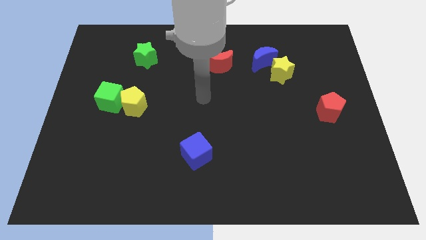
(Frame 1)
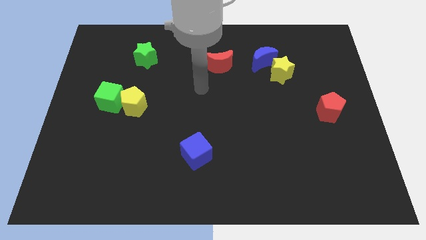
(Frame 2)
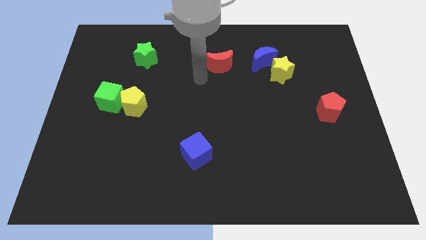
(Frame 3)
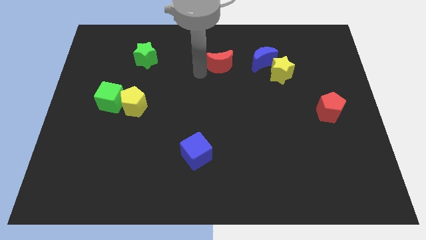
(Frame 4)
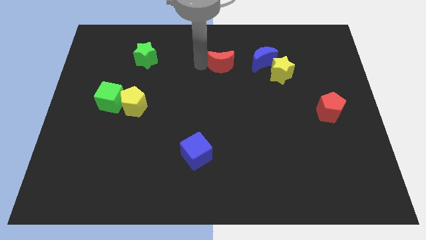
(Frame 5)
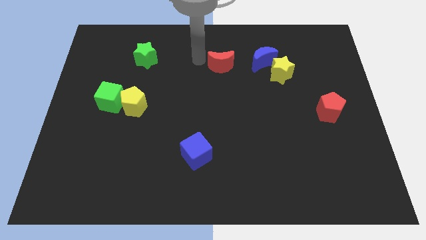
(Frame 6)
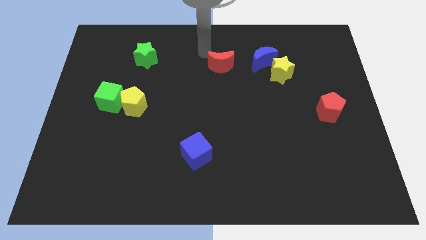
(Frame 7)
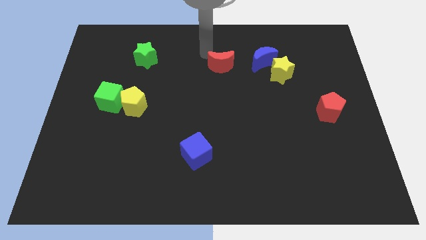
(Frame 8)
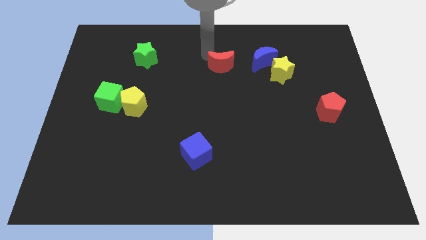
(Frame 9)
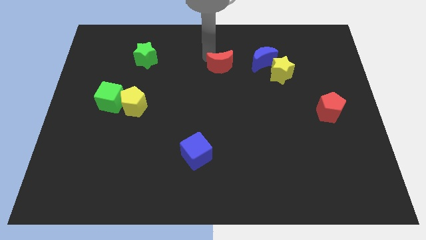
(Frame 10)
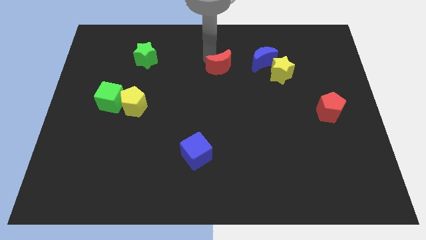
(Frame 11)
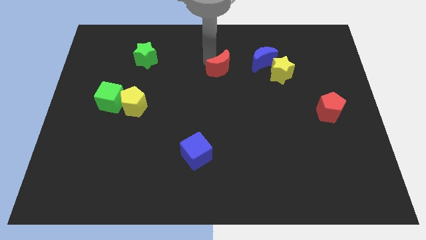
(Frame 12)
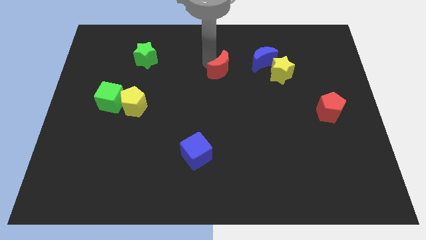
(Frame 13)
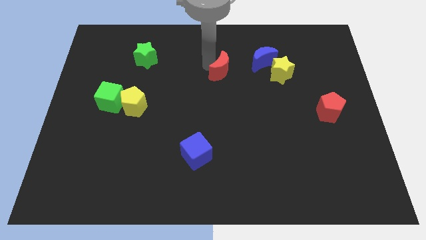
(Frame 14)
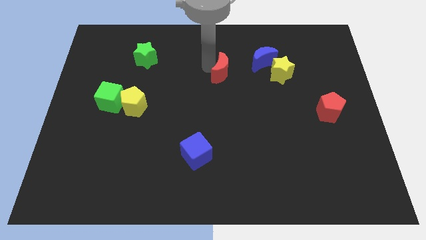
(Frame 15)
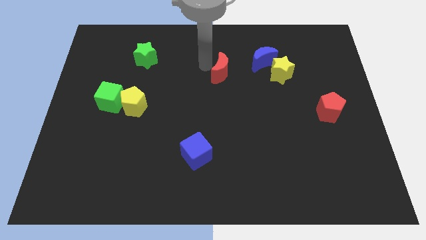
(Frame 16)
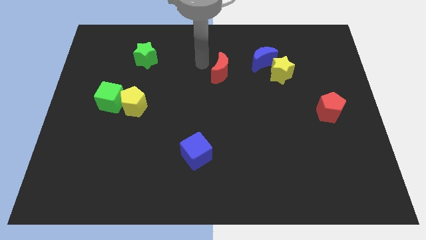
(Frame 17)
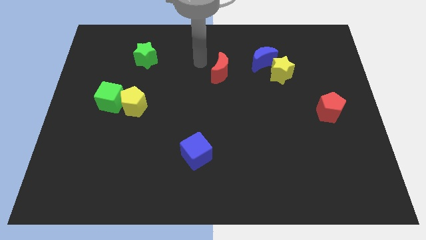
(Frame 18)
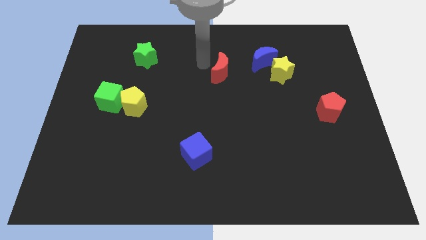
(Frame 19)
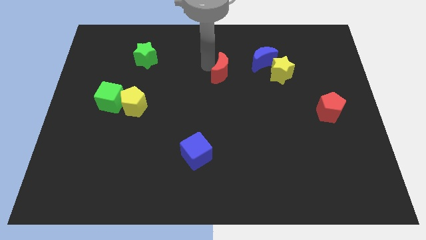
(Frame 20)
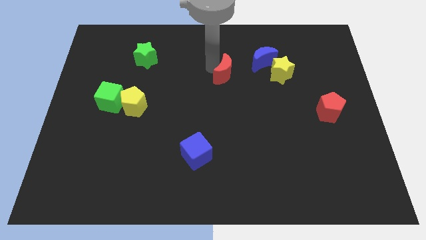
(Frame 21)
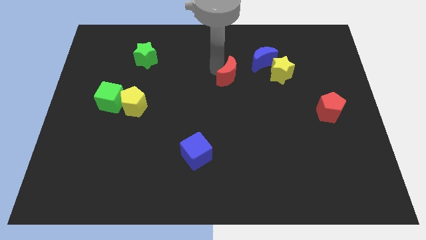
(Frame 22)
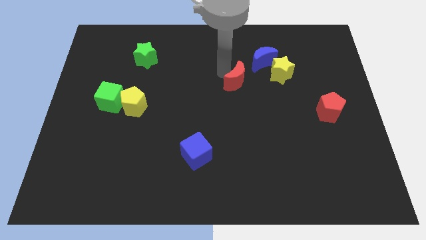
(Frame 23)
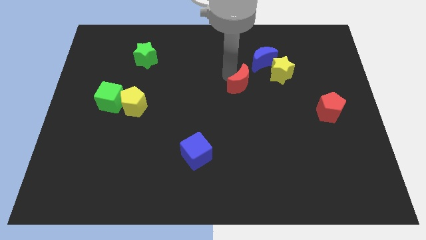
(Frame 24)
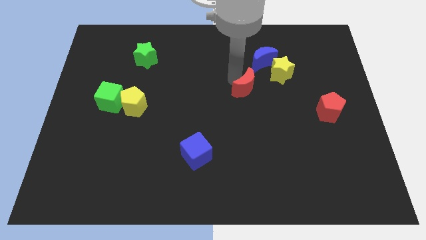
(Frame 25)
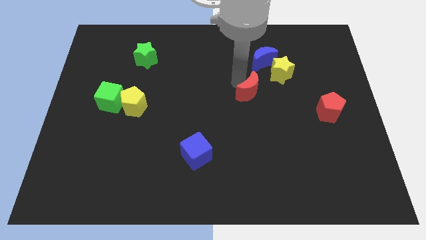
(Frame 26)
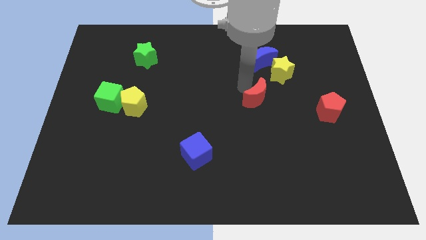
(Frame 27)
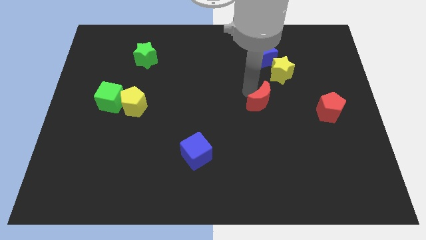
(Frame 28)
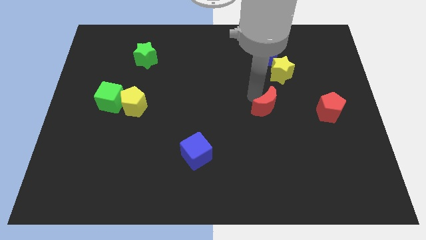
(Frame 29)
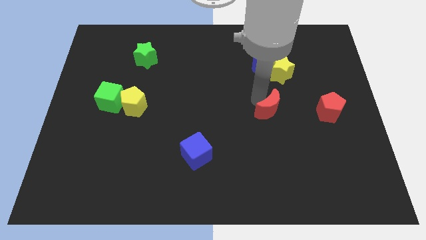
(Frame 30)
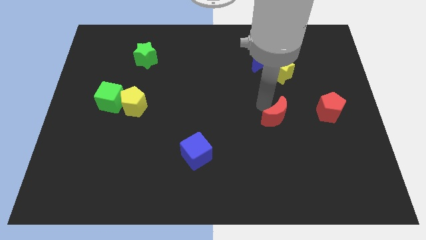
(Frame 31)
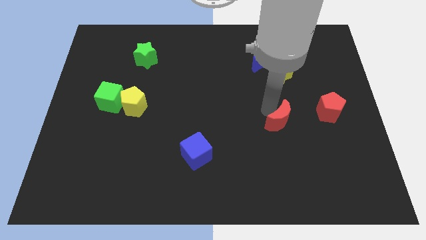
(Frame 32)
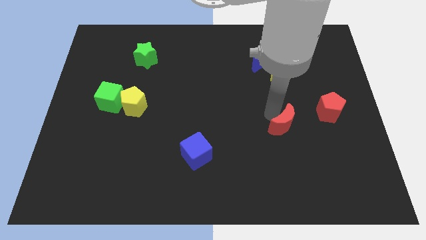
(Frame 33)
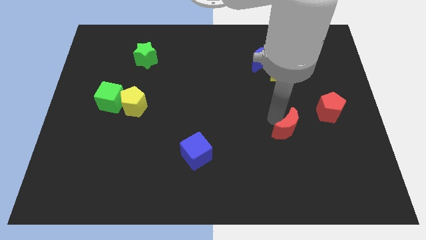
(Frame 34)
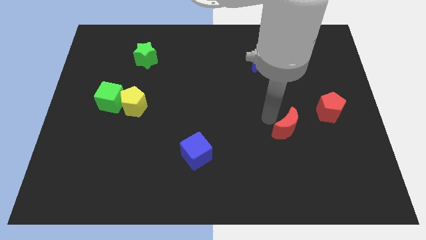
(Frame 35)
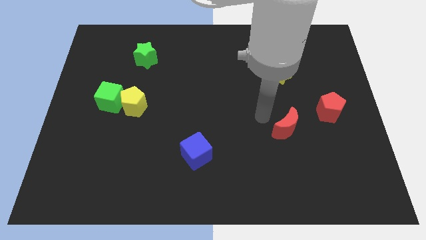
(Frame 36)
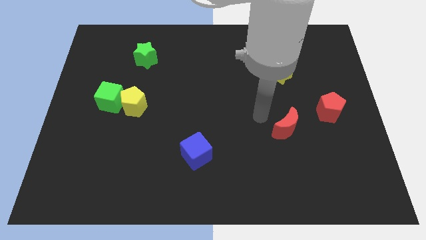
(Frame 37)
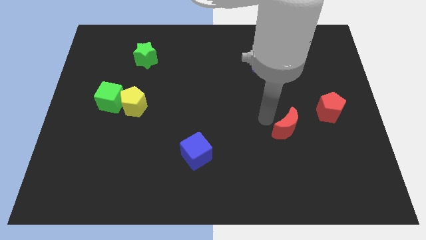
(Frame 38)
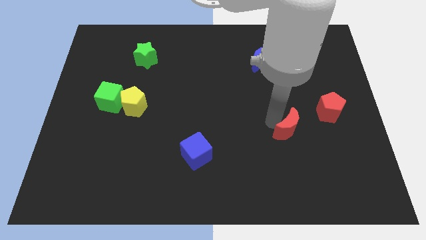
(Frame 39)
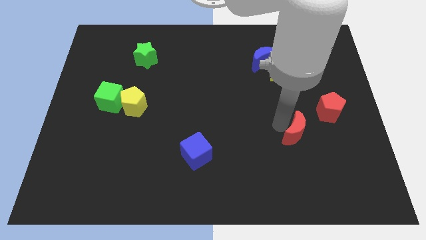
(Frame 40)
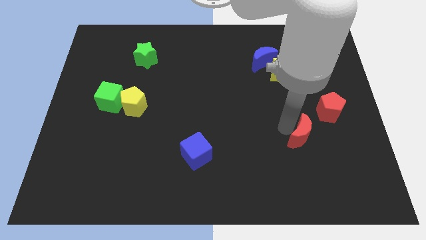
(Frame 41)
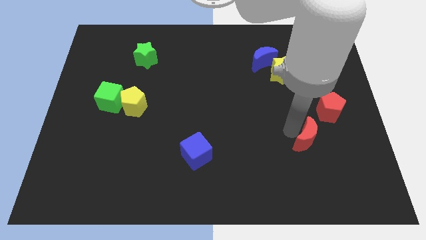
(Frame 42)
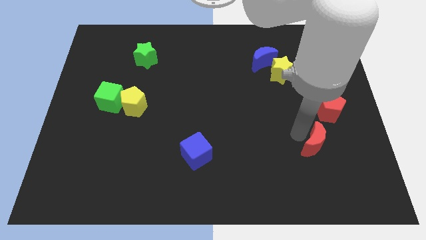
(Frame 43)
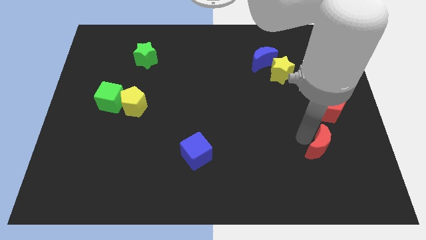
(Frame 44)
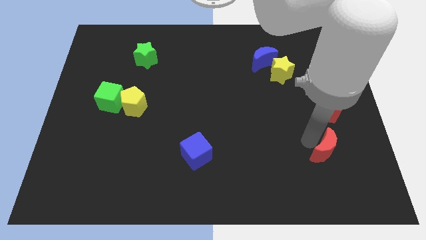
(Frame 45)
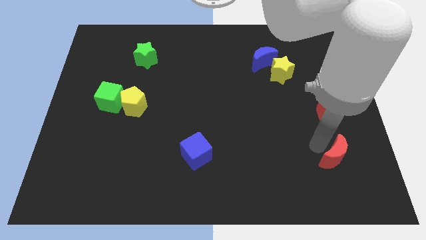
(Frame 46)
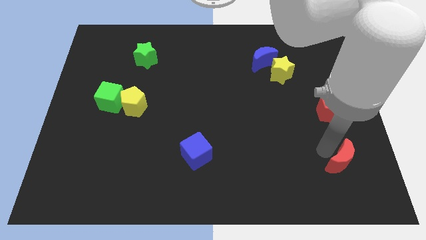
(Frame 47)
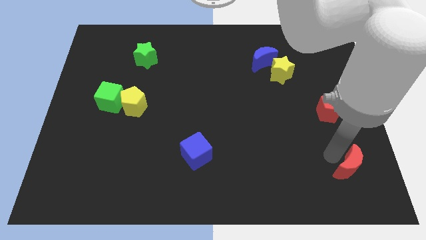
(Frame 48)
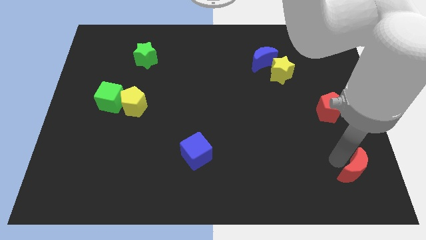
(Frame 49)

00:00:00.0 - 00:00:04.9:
put the red moon to the lower right corner

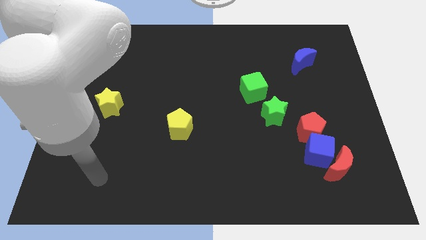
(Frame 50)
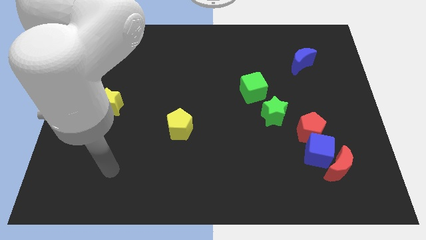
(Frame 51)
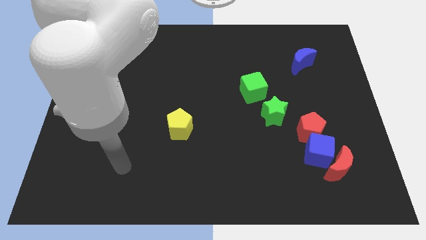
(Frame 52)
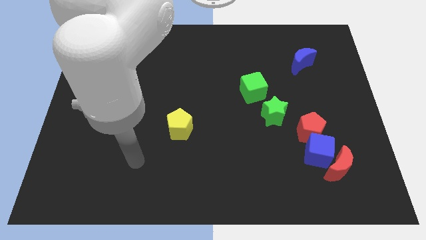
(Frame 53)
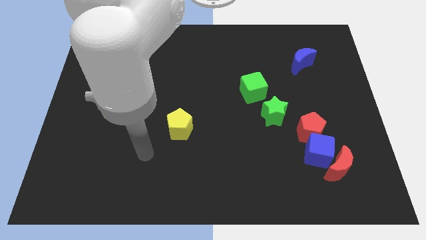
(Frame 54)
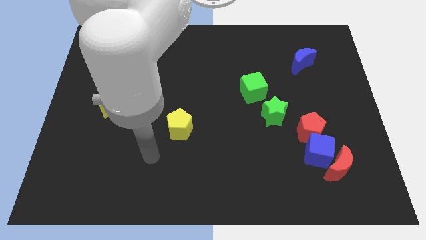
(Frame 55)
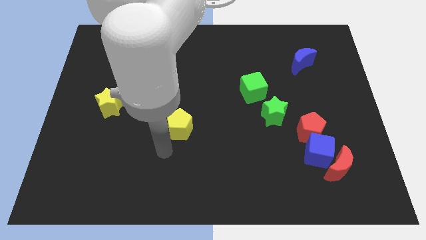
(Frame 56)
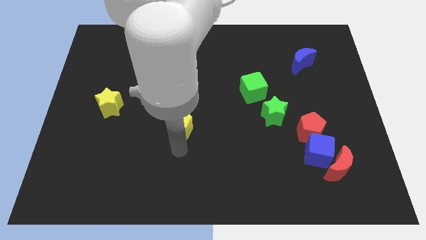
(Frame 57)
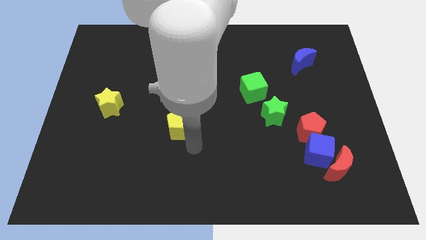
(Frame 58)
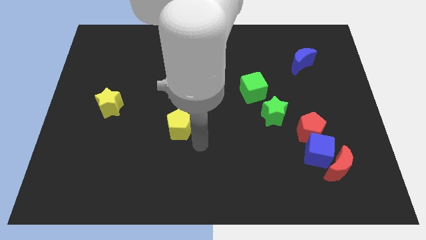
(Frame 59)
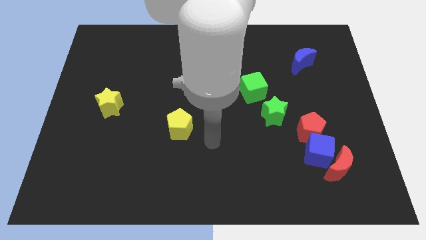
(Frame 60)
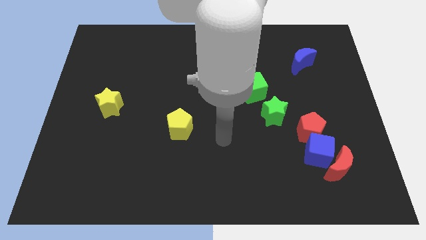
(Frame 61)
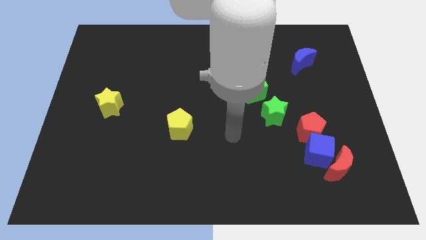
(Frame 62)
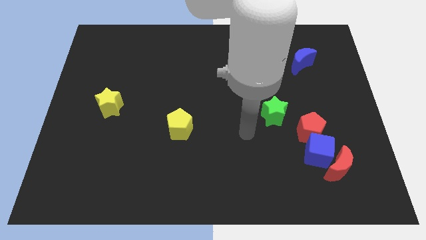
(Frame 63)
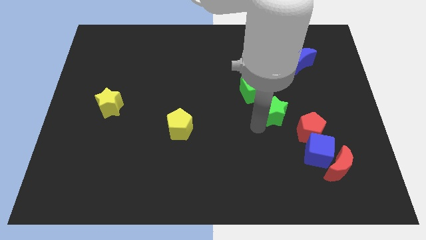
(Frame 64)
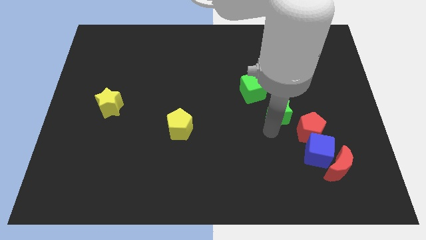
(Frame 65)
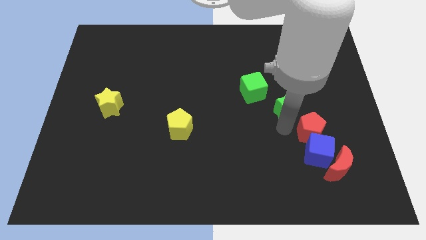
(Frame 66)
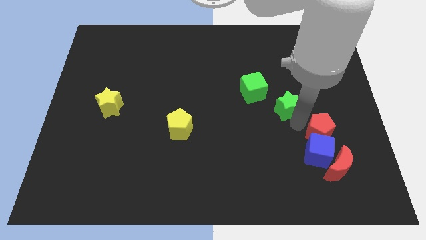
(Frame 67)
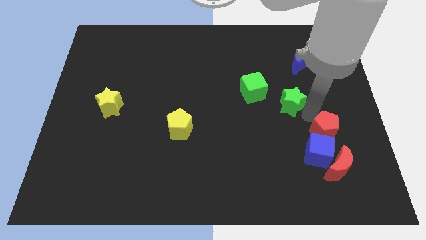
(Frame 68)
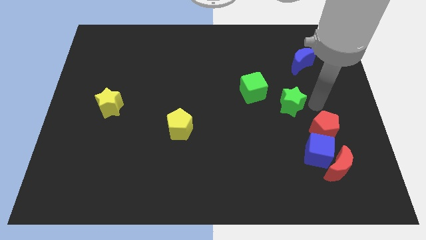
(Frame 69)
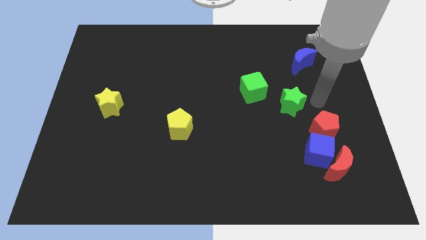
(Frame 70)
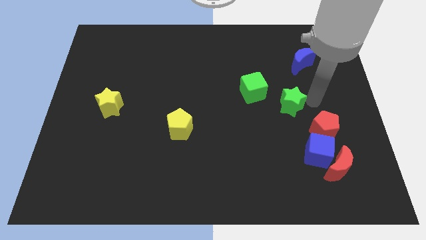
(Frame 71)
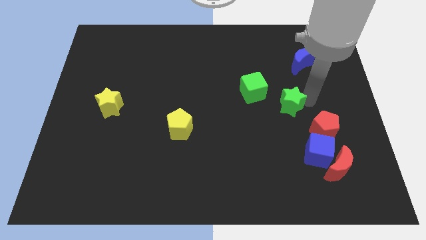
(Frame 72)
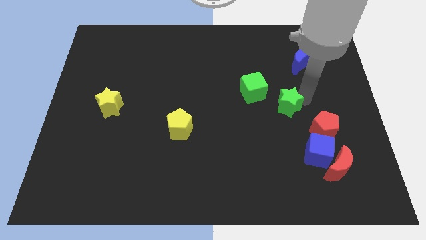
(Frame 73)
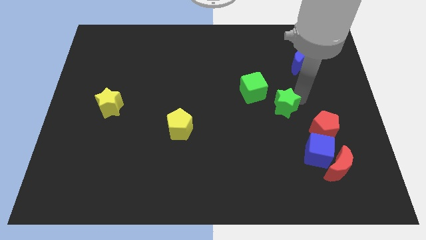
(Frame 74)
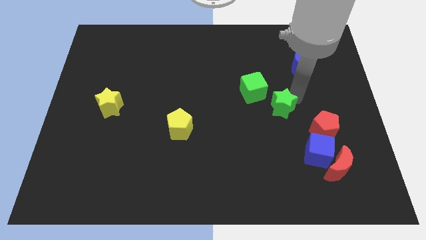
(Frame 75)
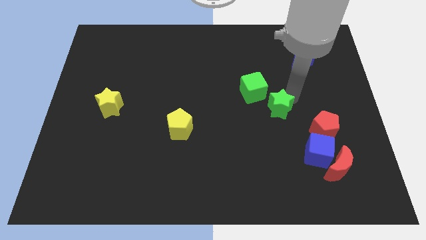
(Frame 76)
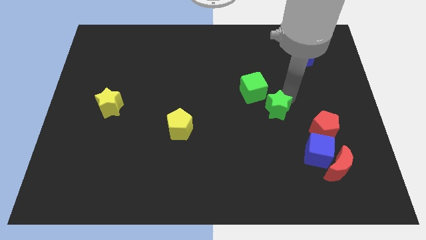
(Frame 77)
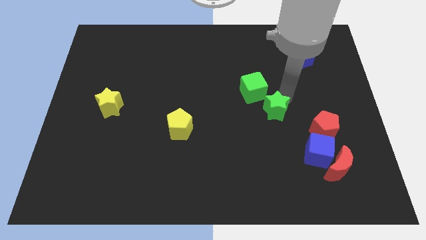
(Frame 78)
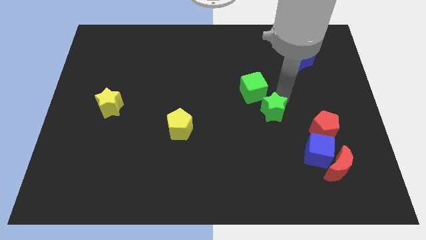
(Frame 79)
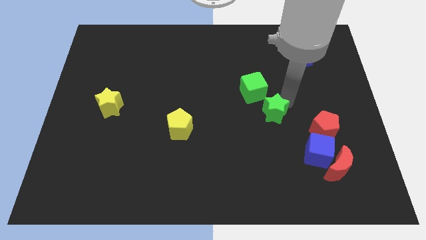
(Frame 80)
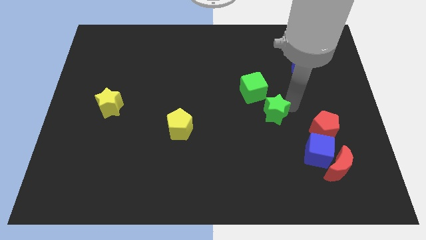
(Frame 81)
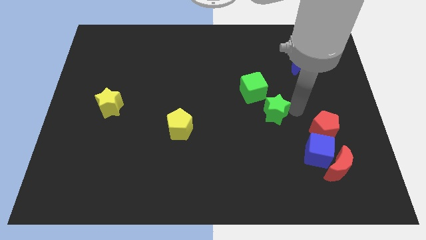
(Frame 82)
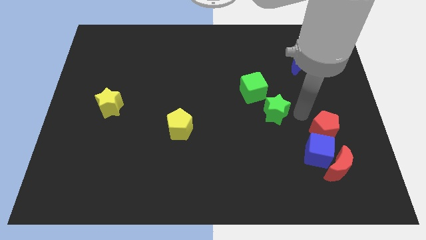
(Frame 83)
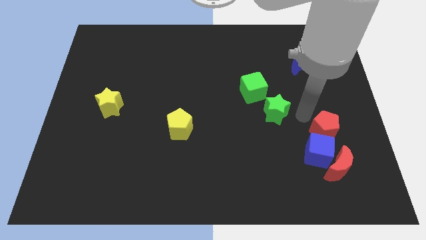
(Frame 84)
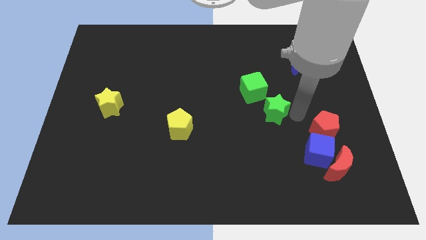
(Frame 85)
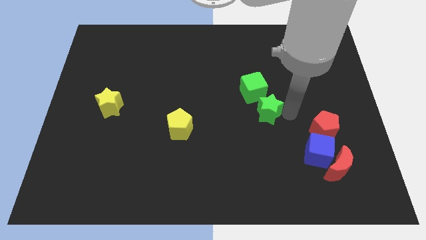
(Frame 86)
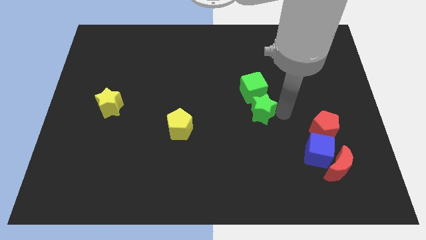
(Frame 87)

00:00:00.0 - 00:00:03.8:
slide the green star to the center
